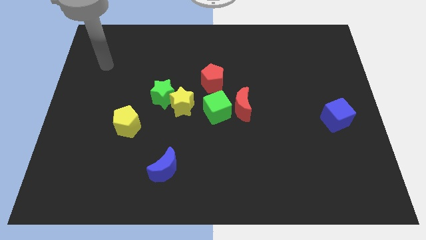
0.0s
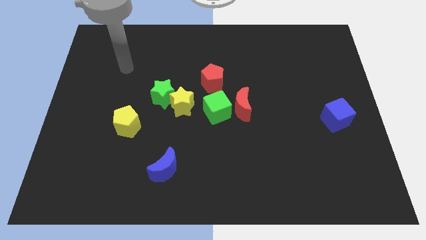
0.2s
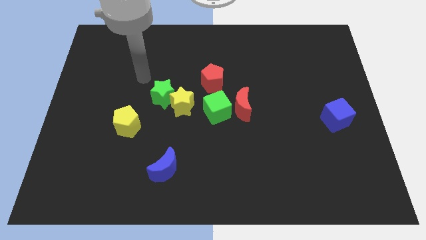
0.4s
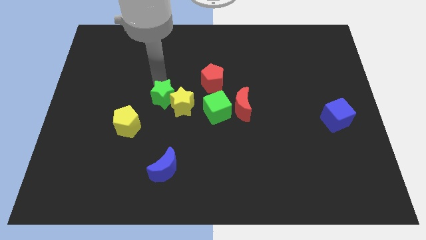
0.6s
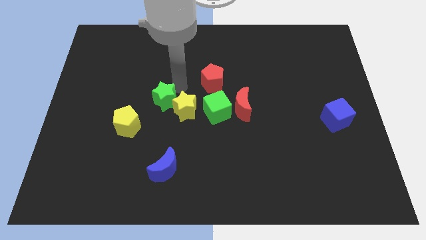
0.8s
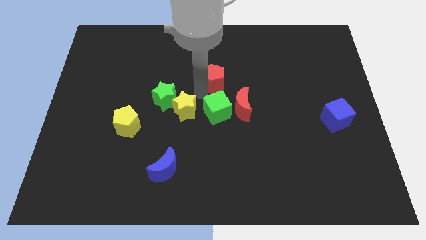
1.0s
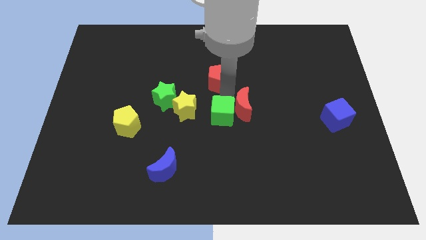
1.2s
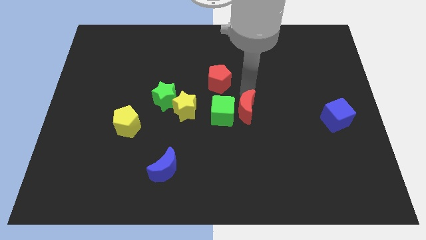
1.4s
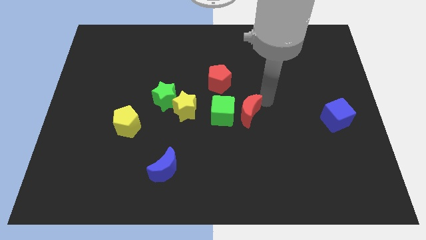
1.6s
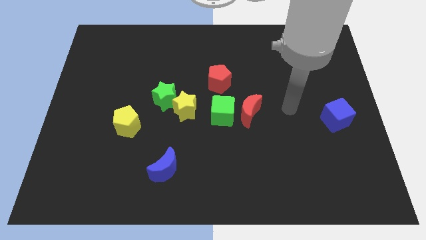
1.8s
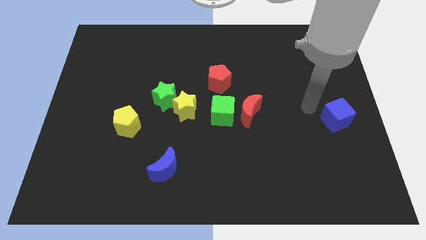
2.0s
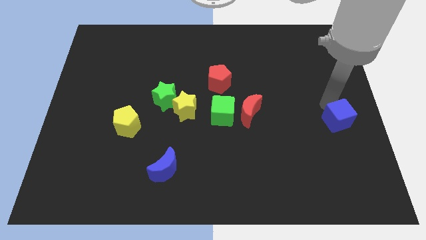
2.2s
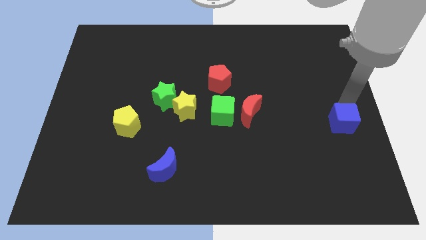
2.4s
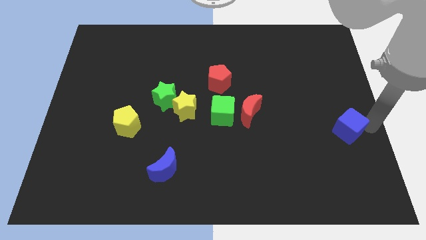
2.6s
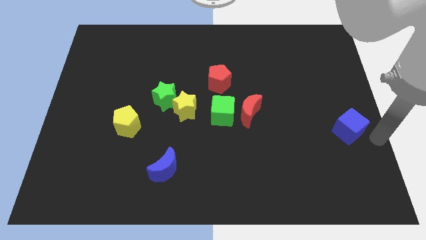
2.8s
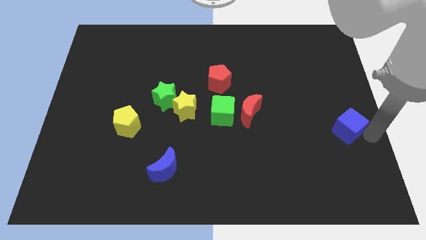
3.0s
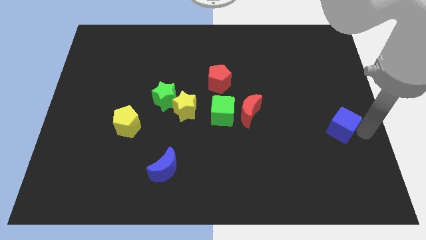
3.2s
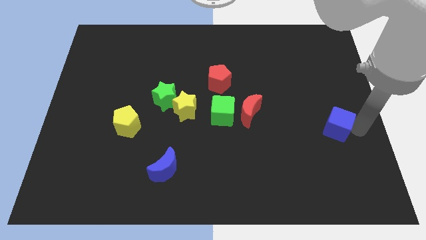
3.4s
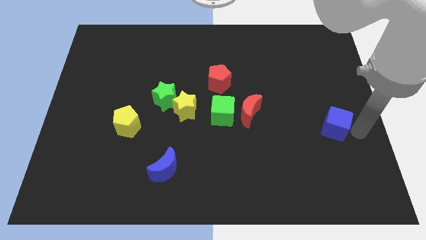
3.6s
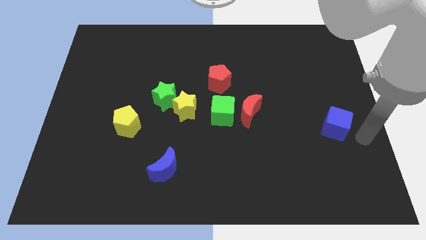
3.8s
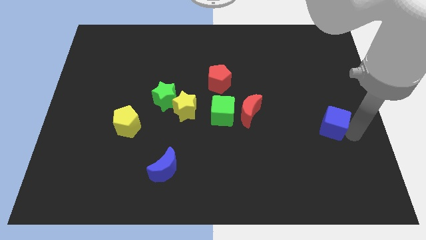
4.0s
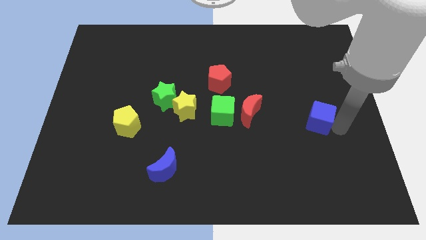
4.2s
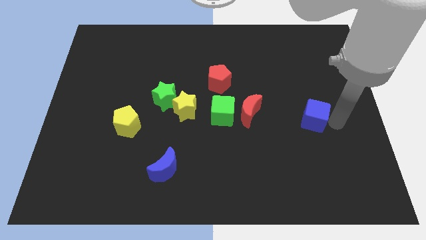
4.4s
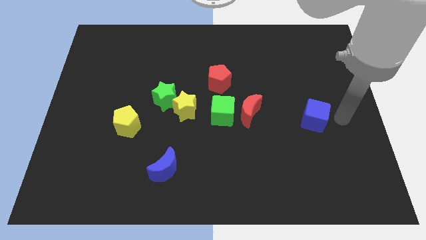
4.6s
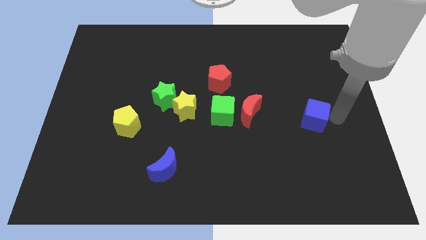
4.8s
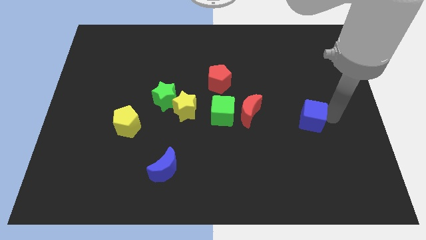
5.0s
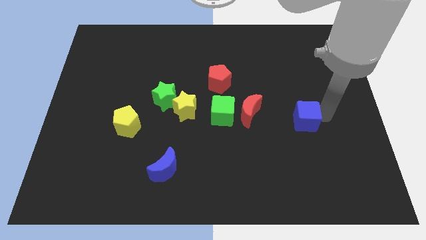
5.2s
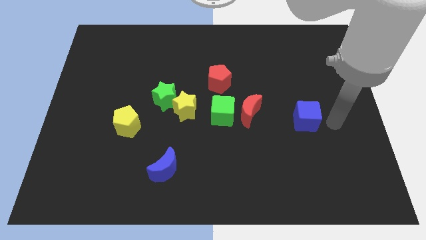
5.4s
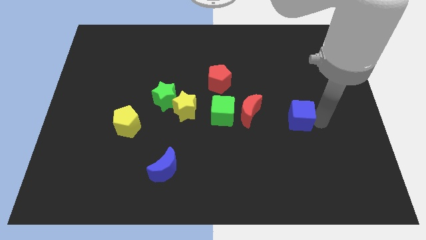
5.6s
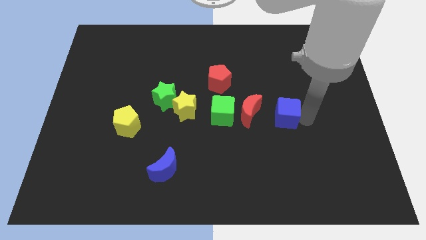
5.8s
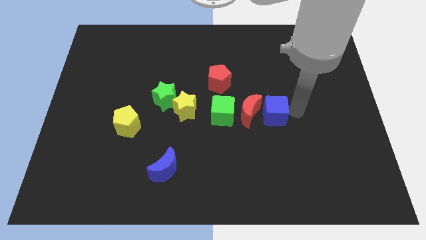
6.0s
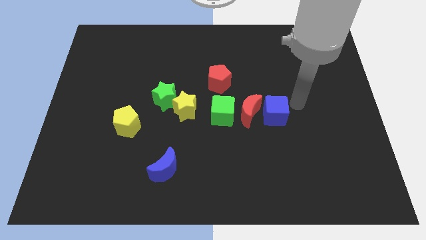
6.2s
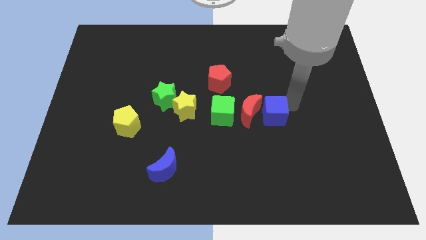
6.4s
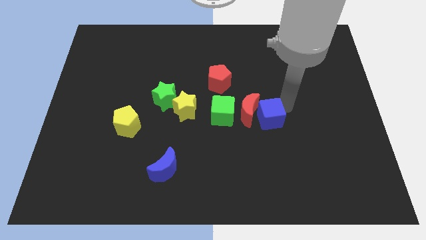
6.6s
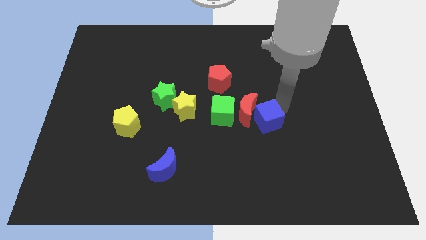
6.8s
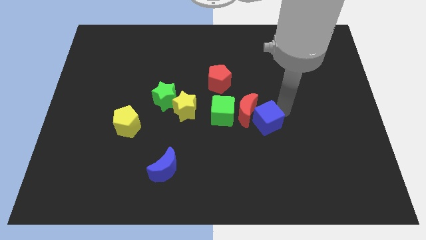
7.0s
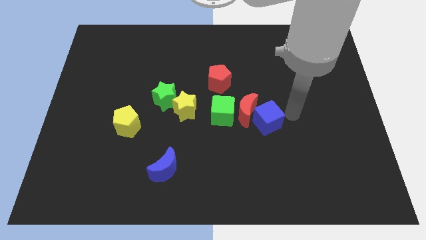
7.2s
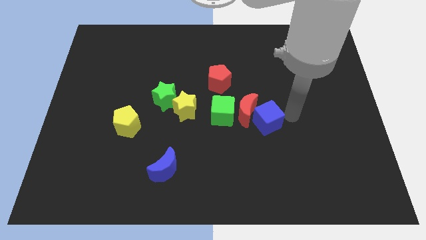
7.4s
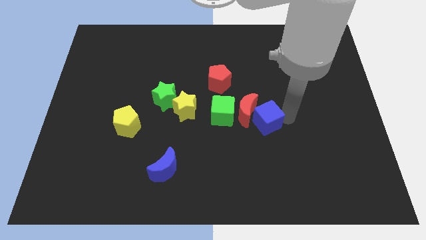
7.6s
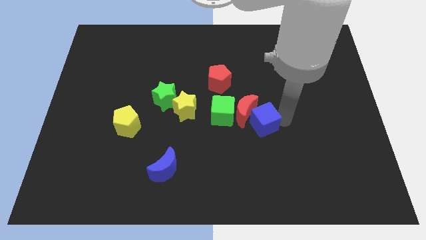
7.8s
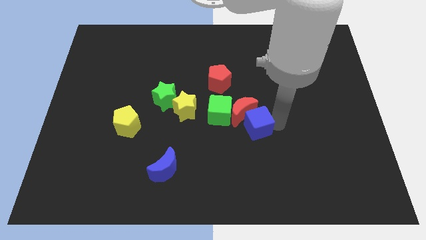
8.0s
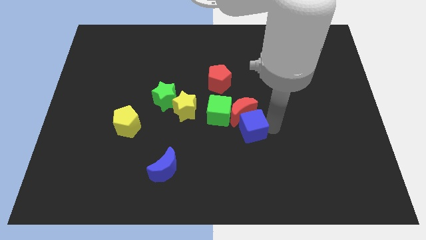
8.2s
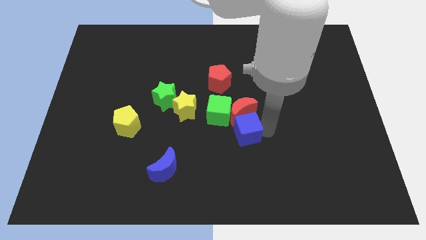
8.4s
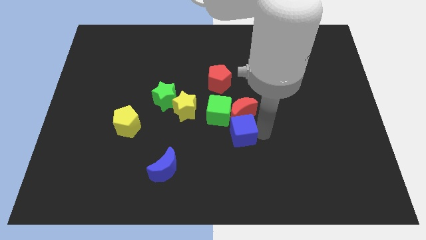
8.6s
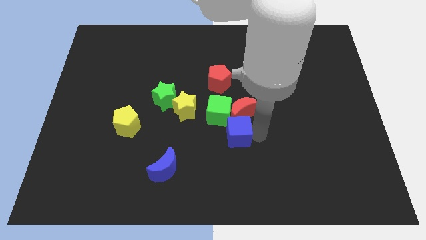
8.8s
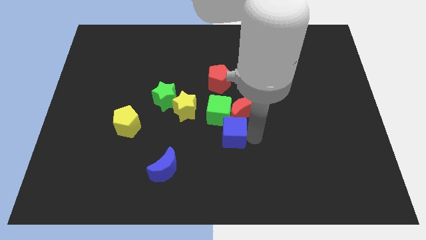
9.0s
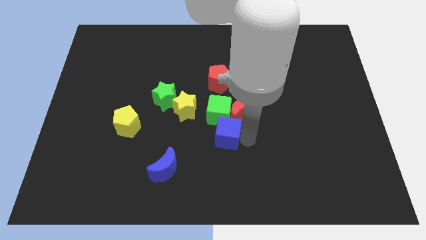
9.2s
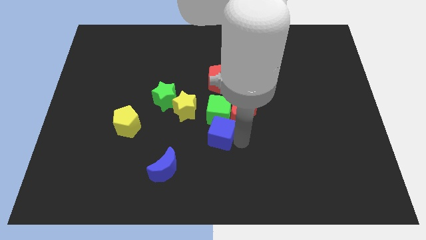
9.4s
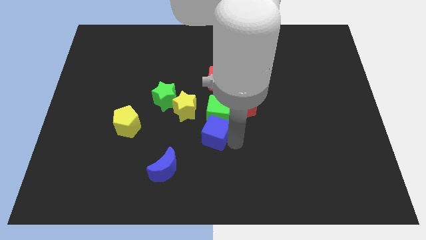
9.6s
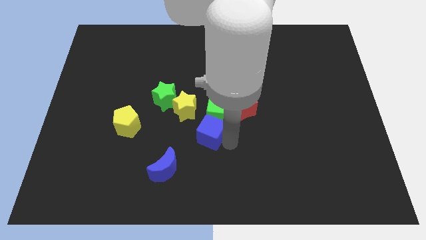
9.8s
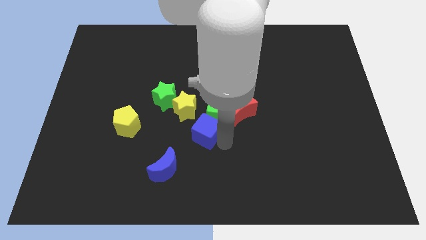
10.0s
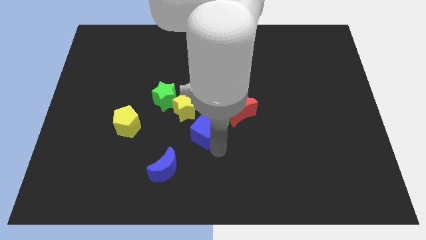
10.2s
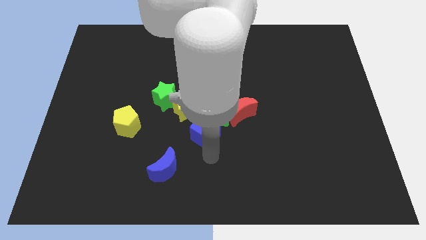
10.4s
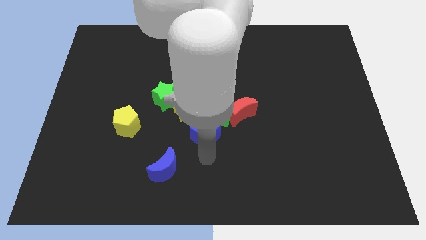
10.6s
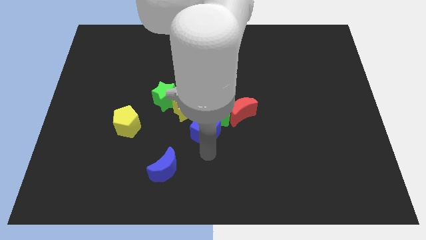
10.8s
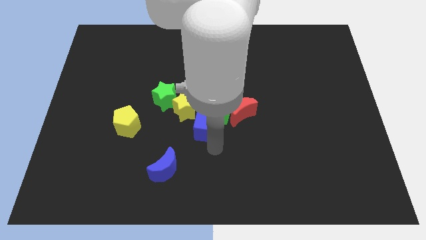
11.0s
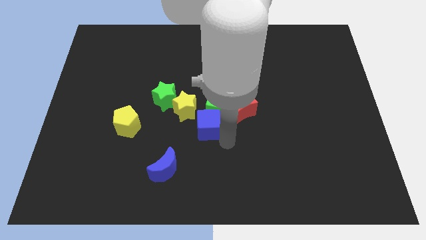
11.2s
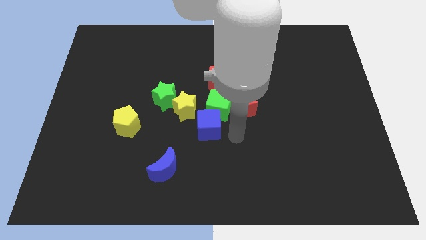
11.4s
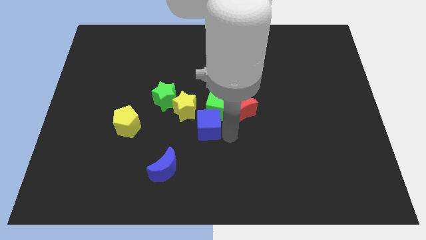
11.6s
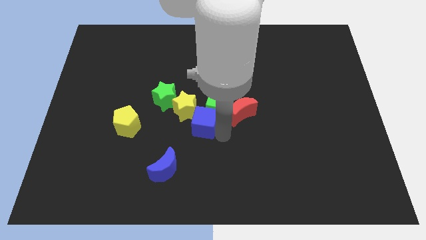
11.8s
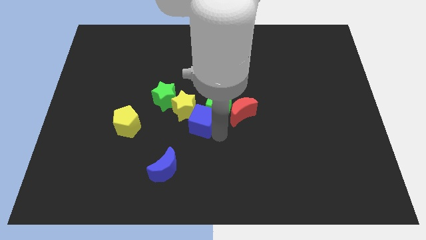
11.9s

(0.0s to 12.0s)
move the blue cube to the left of the green cube

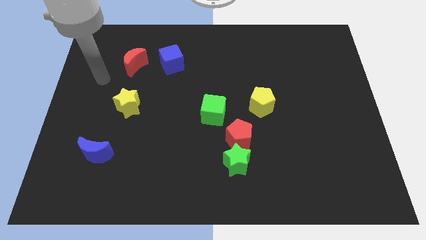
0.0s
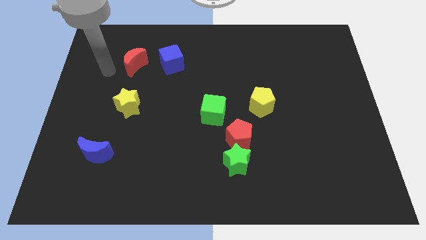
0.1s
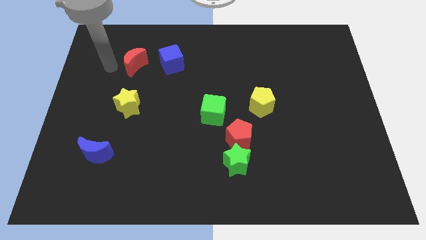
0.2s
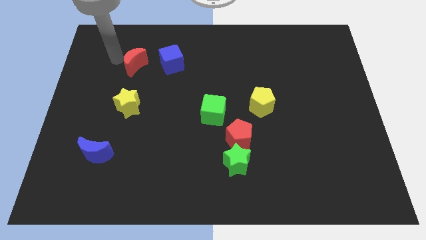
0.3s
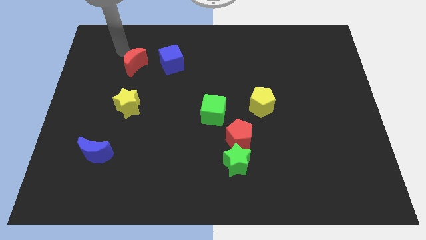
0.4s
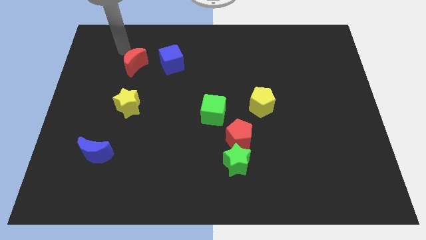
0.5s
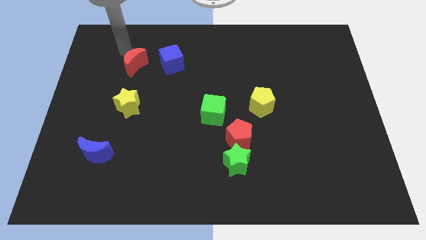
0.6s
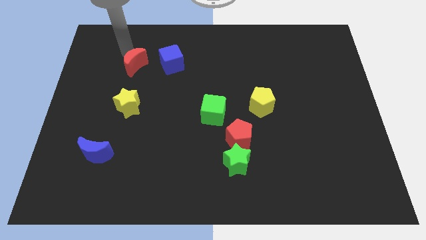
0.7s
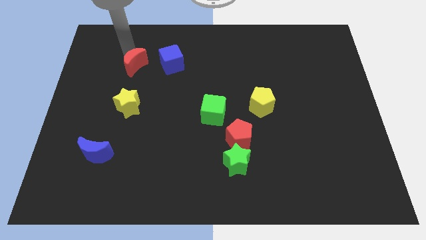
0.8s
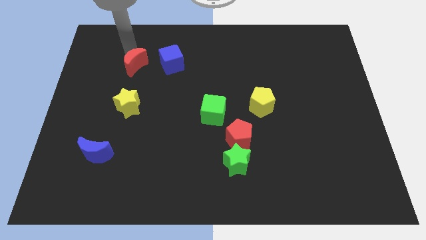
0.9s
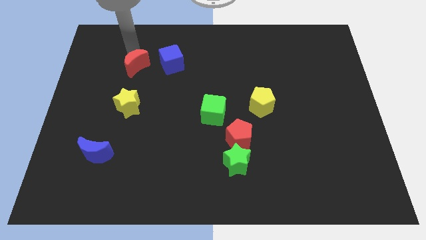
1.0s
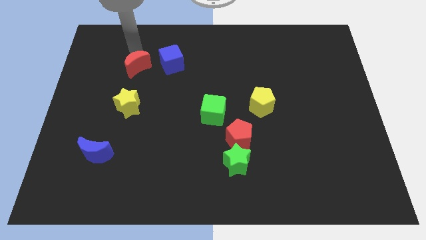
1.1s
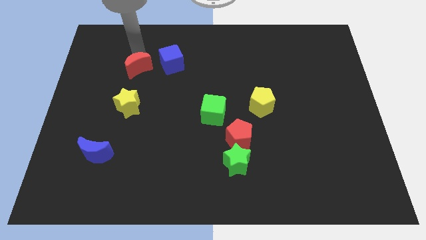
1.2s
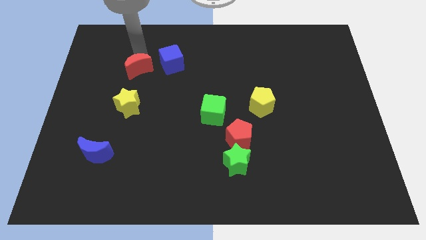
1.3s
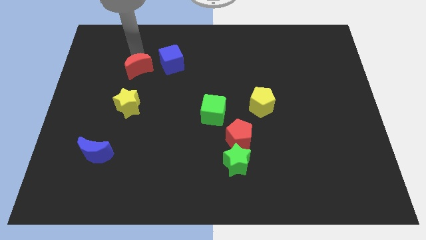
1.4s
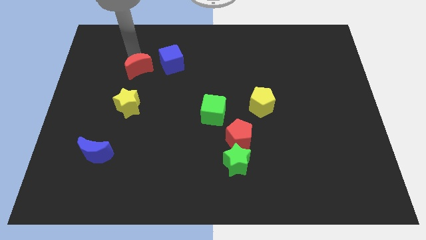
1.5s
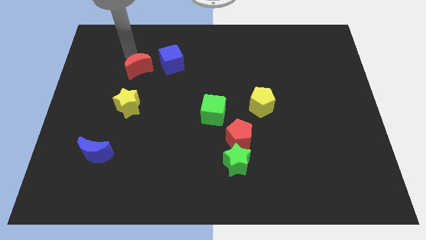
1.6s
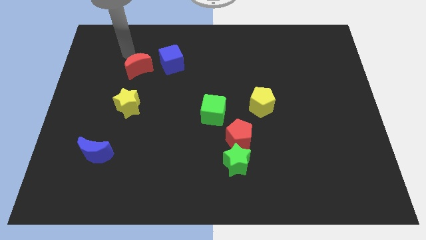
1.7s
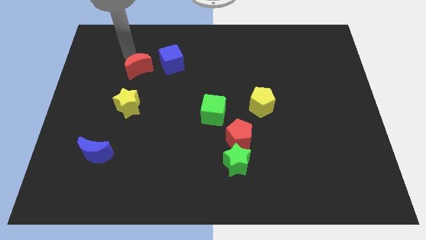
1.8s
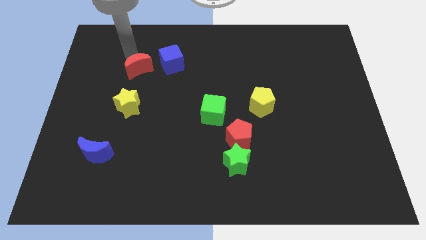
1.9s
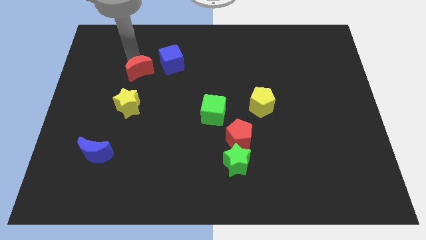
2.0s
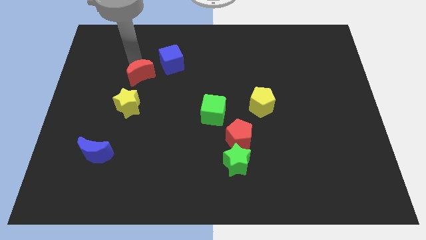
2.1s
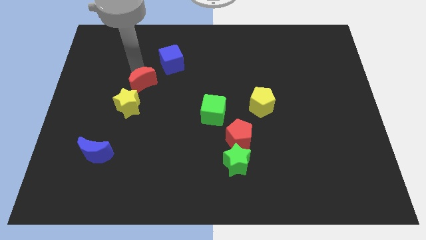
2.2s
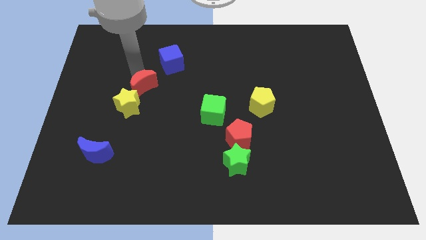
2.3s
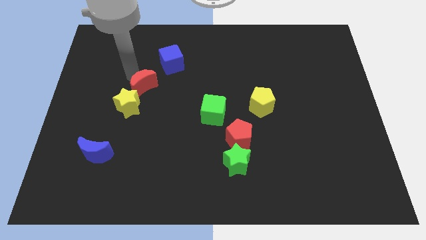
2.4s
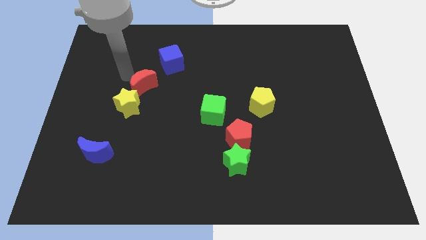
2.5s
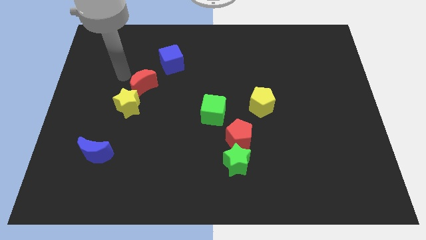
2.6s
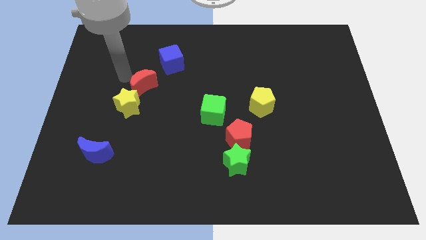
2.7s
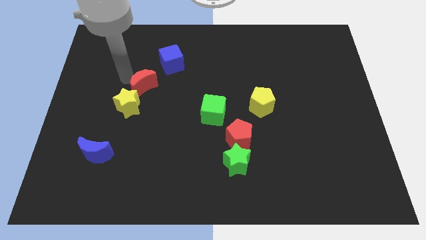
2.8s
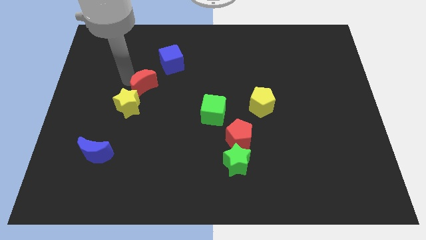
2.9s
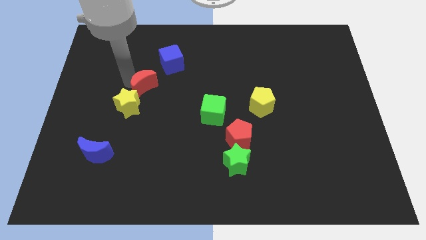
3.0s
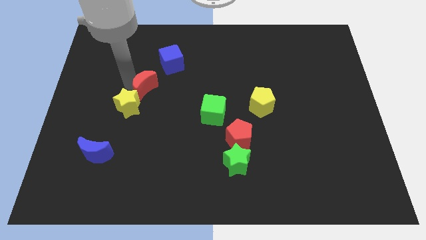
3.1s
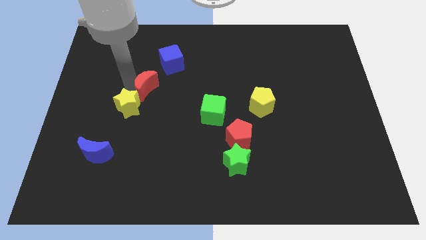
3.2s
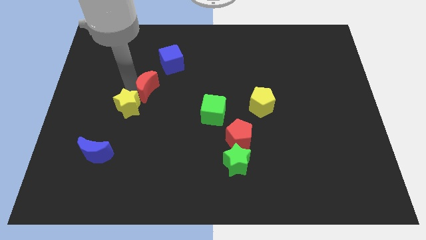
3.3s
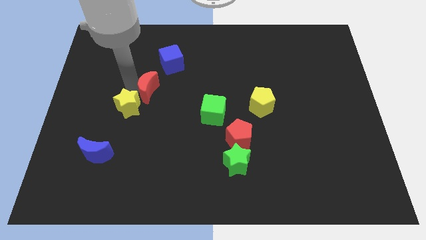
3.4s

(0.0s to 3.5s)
move the red moon right of the yellow star
